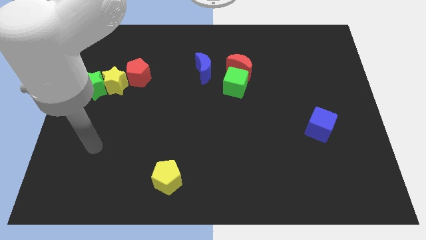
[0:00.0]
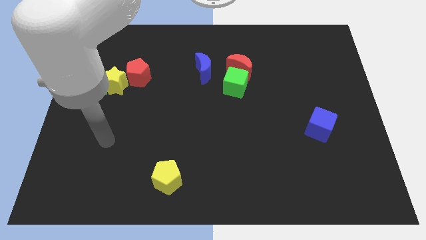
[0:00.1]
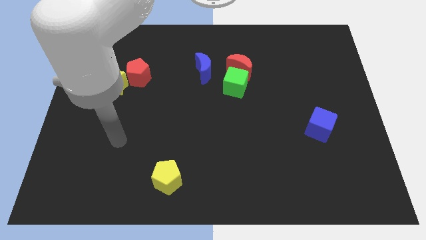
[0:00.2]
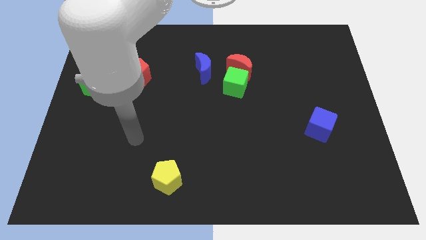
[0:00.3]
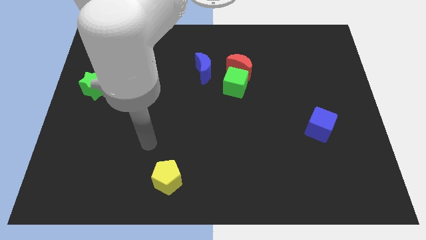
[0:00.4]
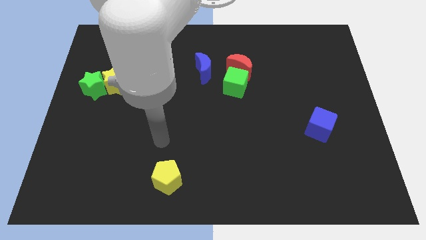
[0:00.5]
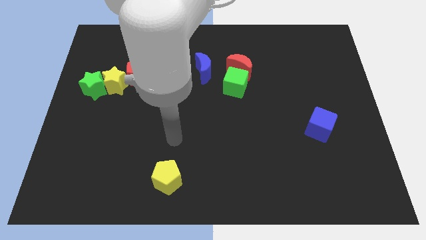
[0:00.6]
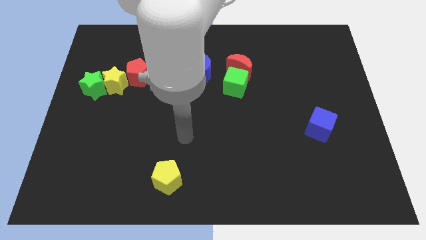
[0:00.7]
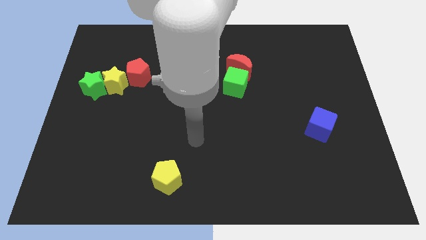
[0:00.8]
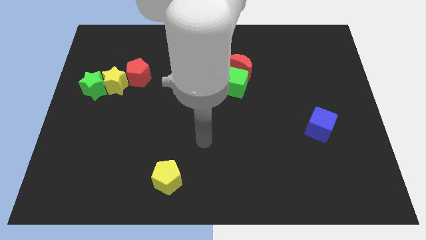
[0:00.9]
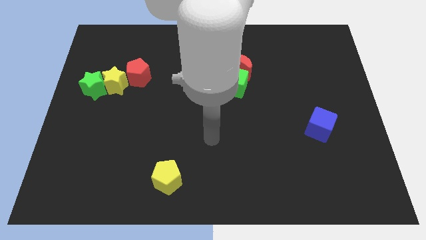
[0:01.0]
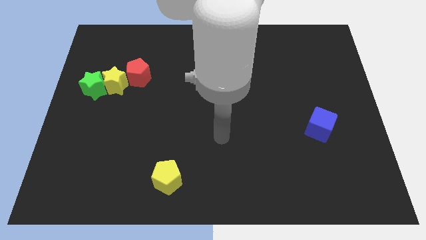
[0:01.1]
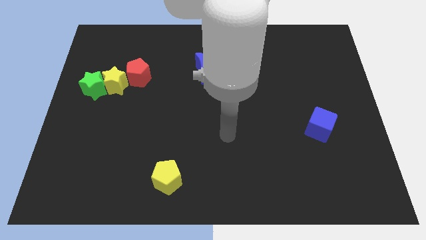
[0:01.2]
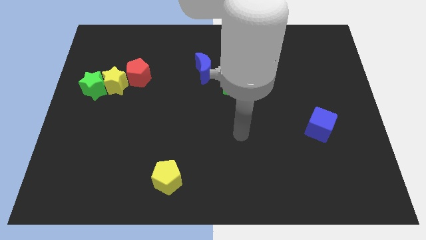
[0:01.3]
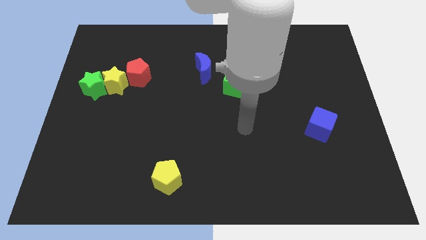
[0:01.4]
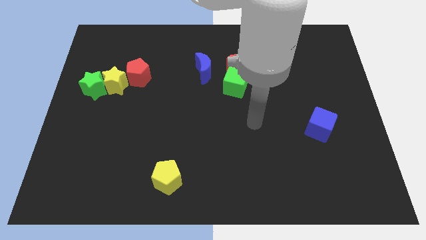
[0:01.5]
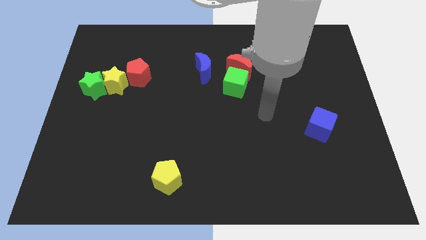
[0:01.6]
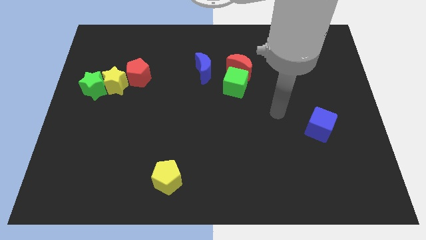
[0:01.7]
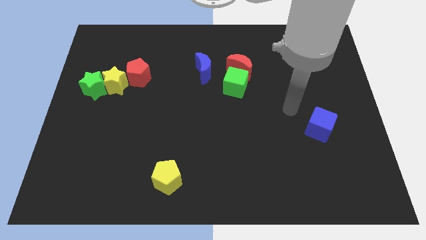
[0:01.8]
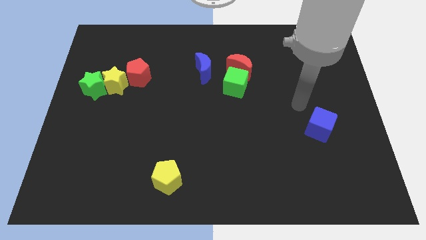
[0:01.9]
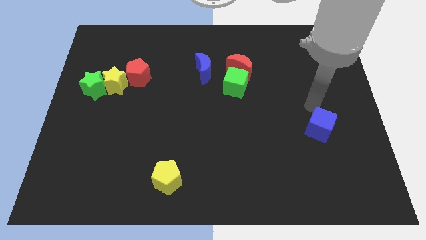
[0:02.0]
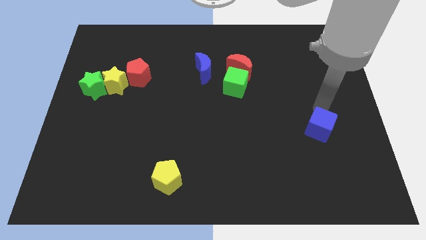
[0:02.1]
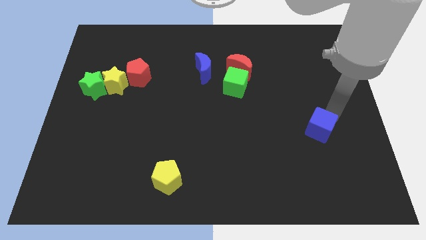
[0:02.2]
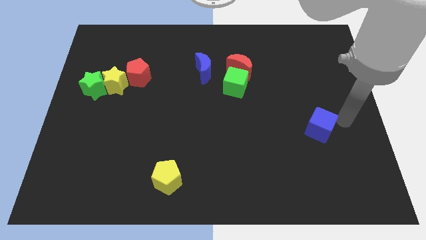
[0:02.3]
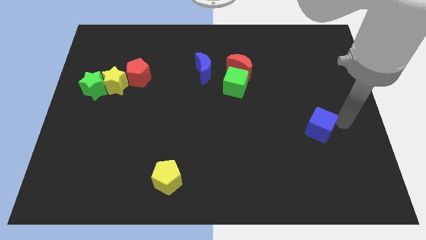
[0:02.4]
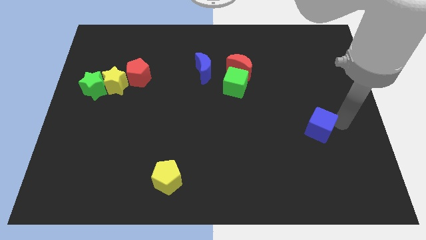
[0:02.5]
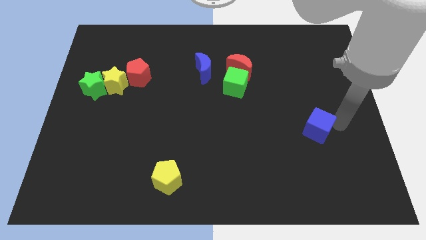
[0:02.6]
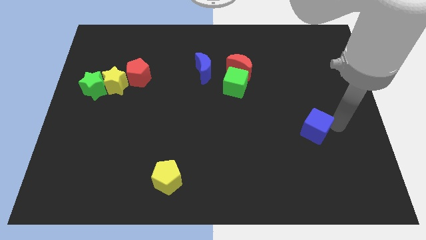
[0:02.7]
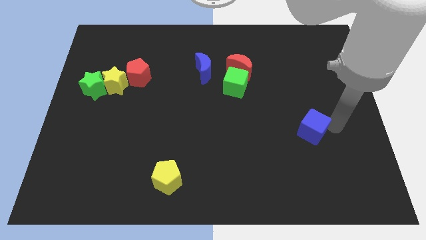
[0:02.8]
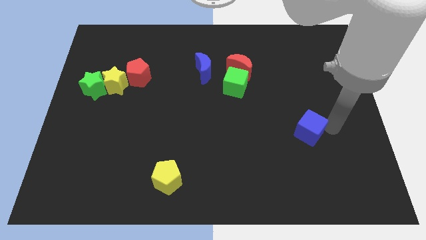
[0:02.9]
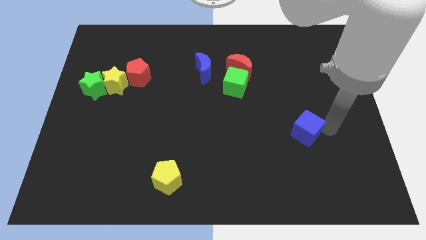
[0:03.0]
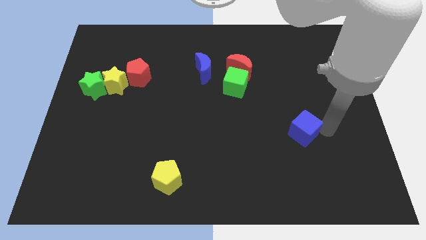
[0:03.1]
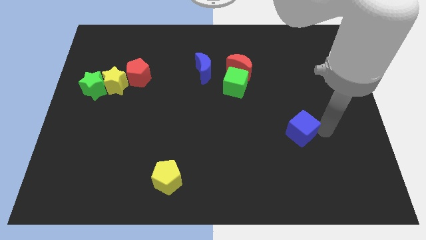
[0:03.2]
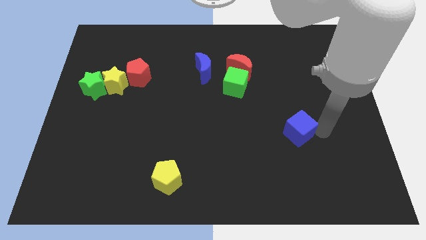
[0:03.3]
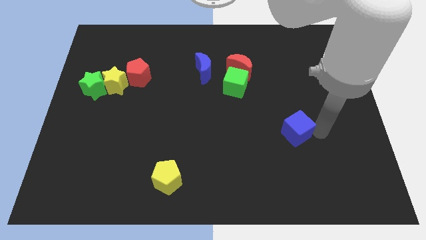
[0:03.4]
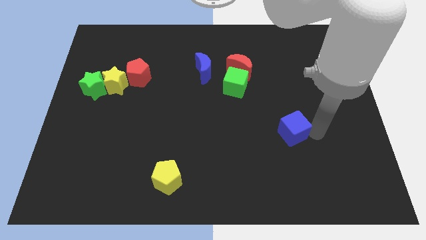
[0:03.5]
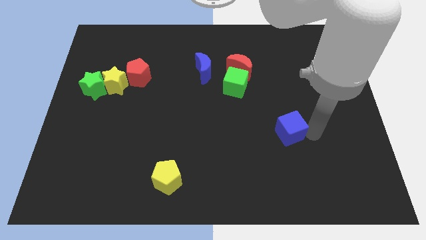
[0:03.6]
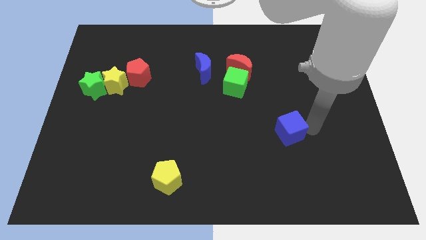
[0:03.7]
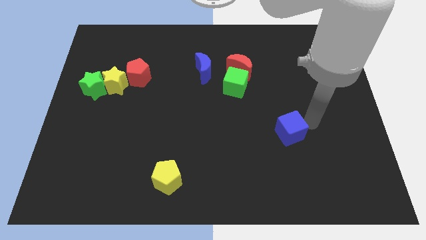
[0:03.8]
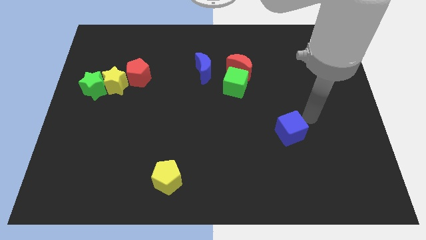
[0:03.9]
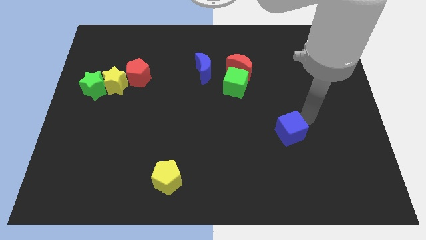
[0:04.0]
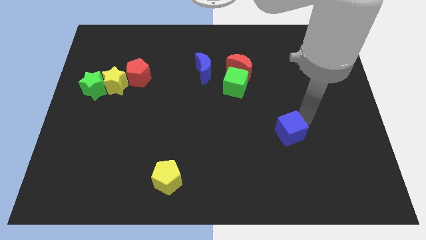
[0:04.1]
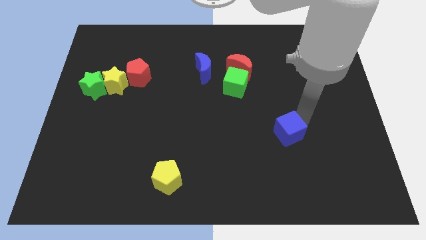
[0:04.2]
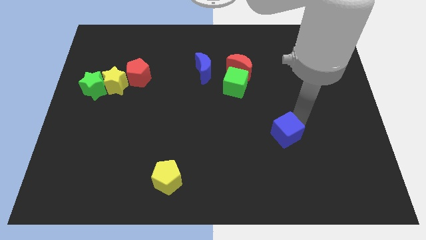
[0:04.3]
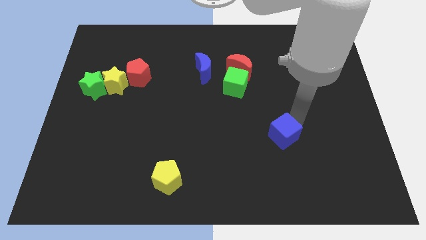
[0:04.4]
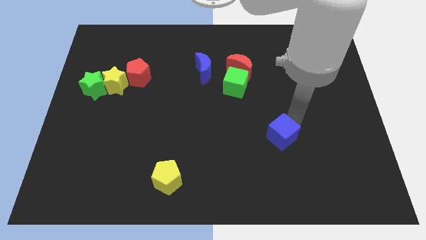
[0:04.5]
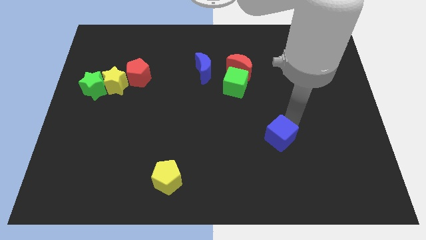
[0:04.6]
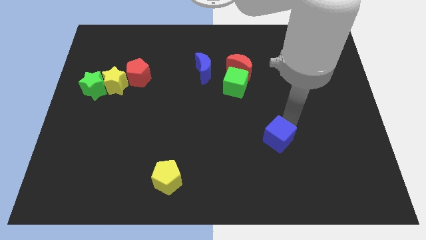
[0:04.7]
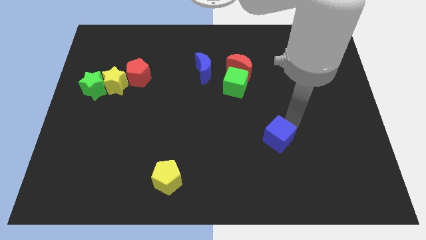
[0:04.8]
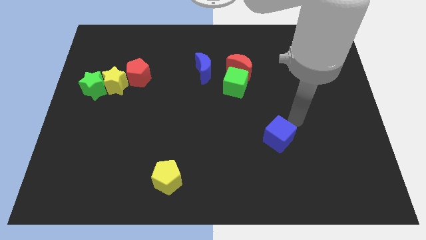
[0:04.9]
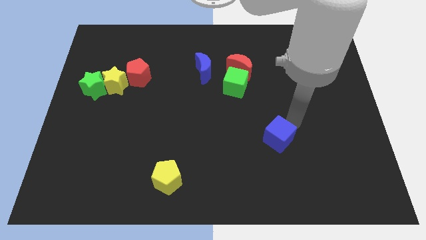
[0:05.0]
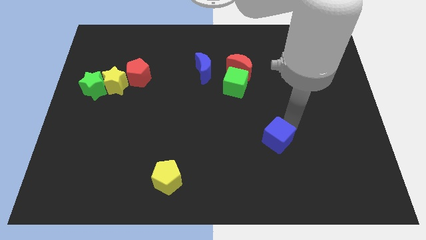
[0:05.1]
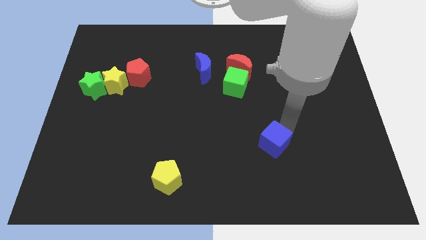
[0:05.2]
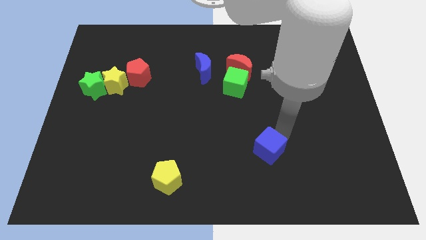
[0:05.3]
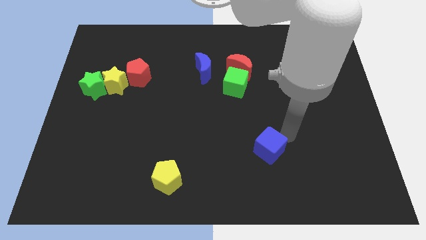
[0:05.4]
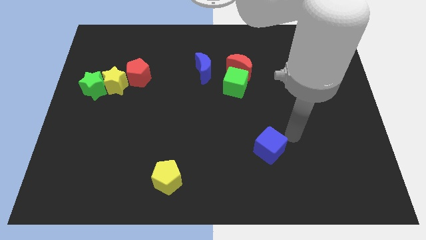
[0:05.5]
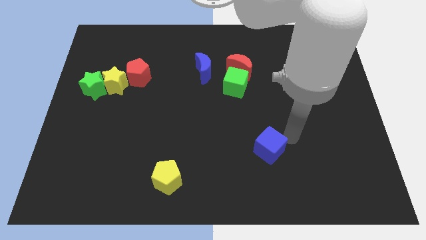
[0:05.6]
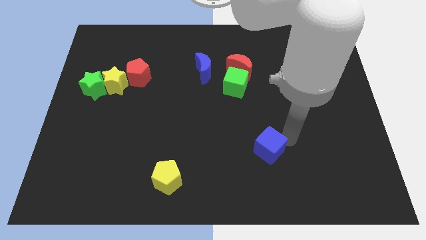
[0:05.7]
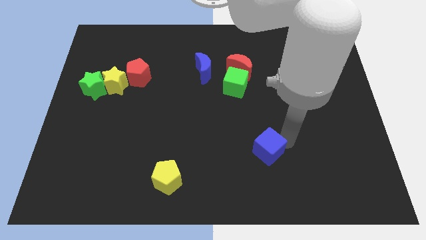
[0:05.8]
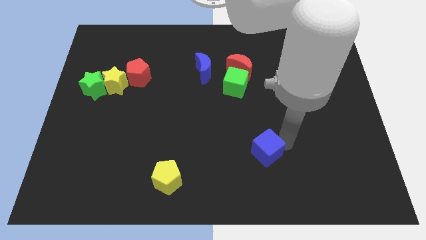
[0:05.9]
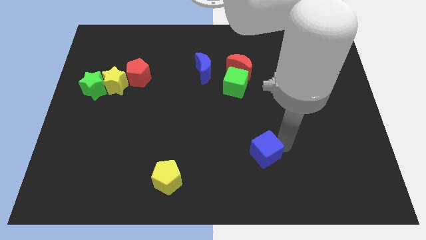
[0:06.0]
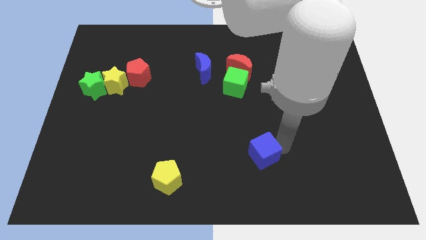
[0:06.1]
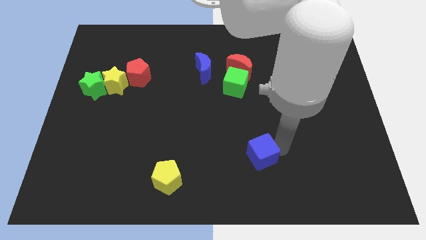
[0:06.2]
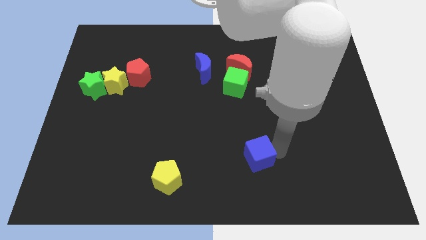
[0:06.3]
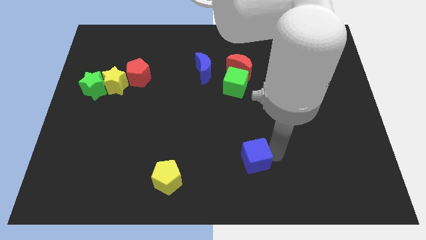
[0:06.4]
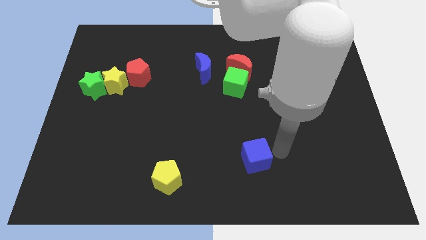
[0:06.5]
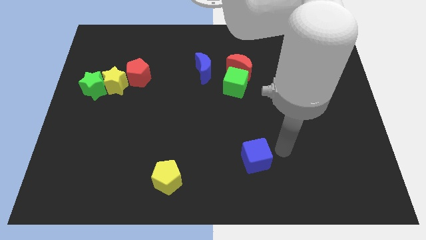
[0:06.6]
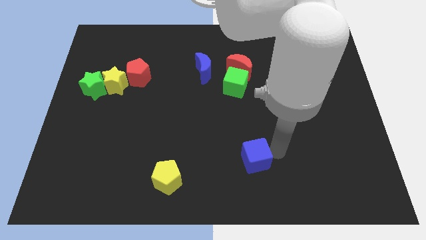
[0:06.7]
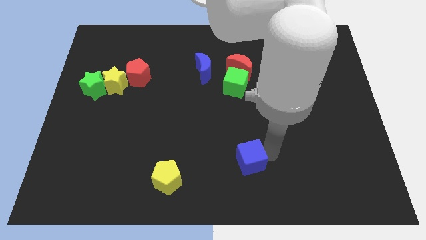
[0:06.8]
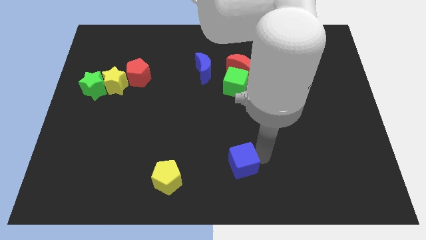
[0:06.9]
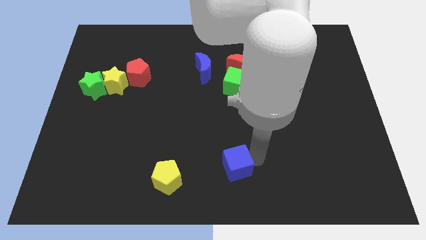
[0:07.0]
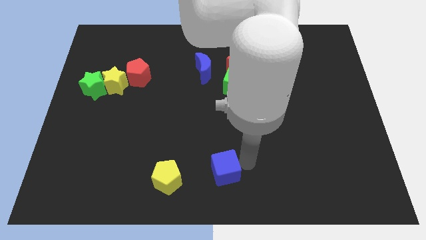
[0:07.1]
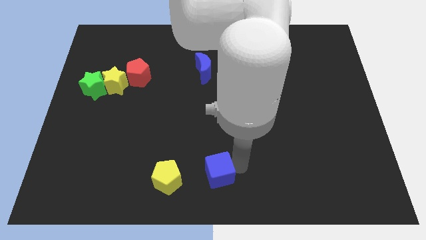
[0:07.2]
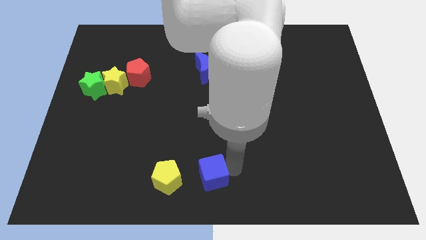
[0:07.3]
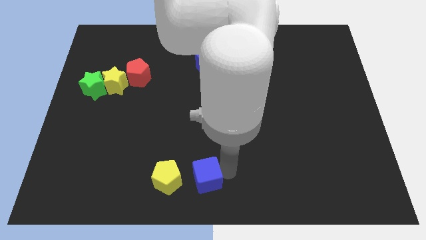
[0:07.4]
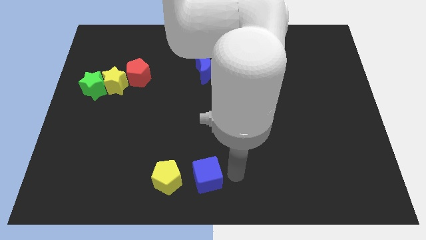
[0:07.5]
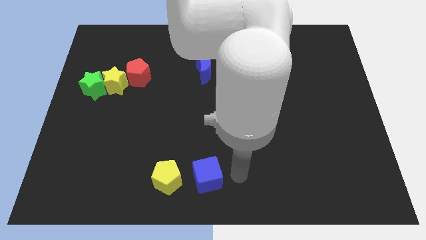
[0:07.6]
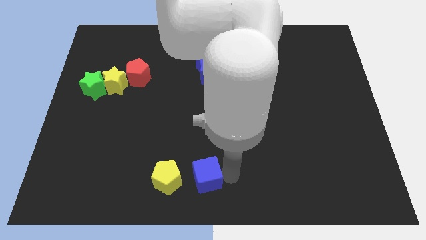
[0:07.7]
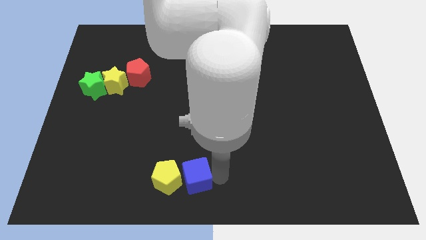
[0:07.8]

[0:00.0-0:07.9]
slide the blue cube to the yellow pentagon
